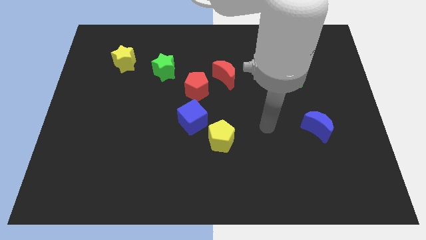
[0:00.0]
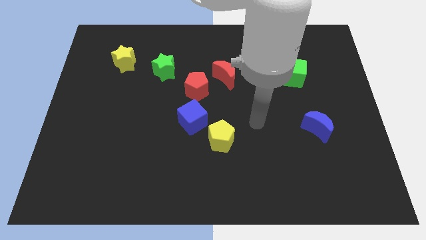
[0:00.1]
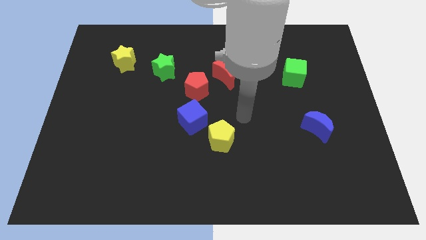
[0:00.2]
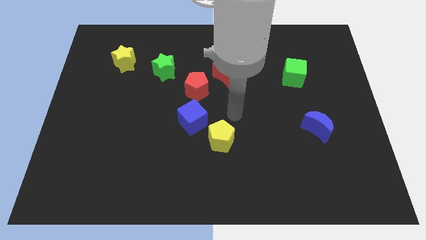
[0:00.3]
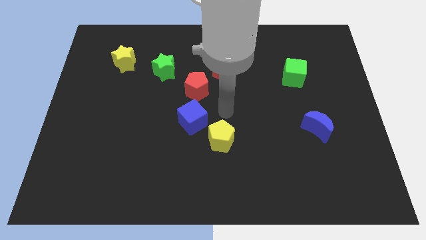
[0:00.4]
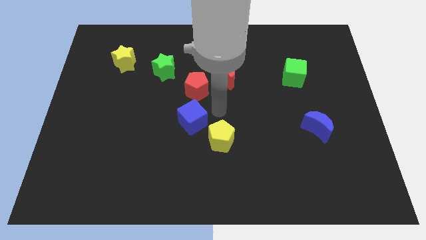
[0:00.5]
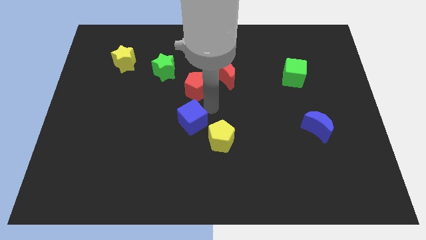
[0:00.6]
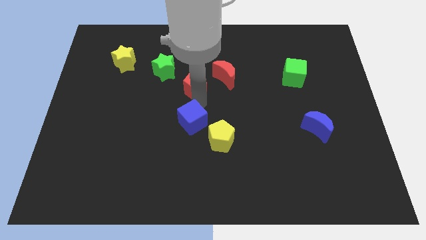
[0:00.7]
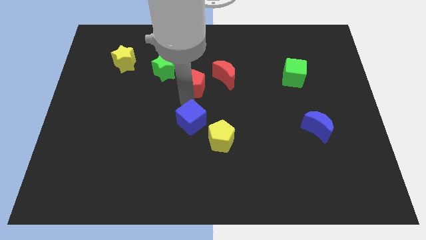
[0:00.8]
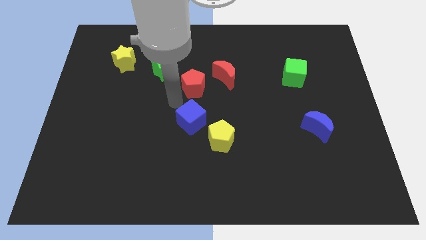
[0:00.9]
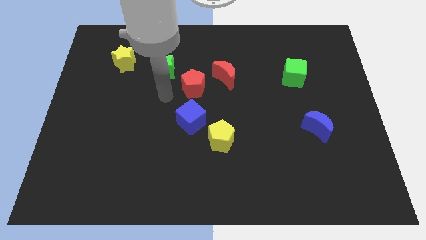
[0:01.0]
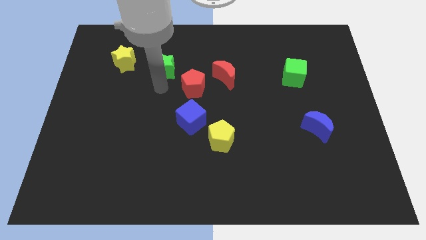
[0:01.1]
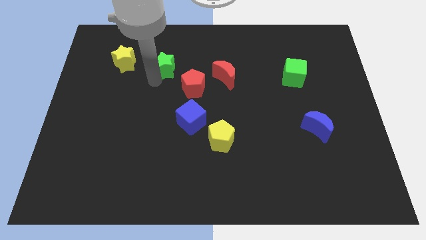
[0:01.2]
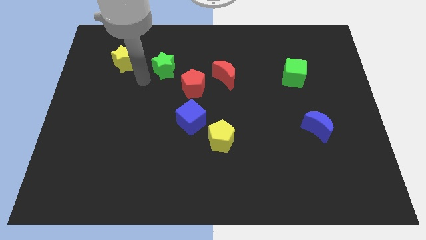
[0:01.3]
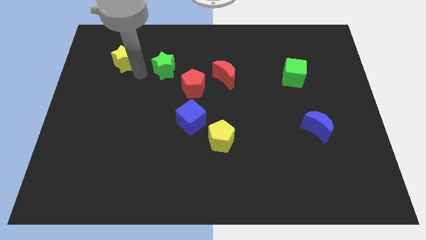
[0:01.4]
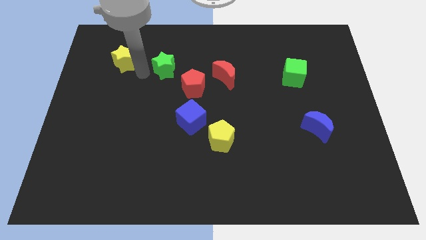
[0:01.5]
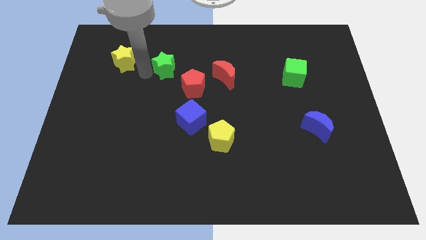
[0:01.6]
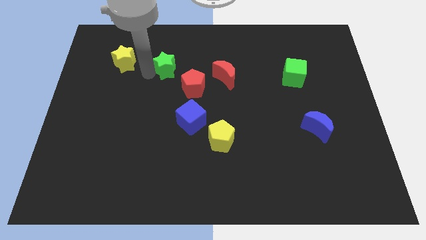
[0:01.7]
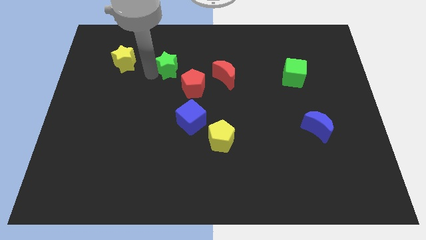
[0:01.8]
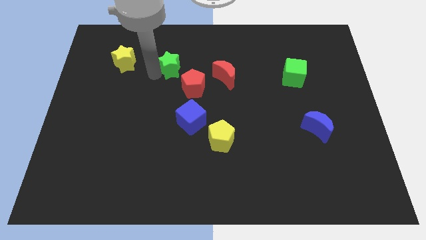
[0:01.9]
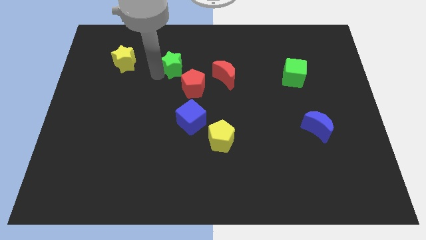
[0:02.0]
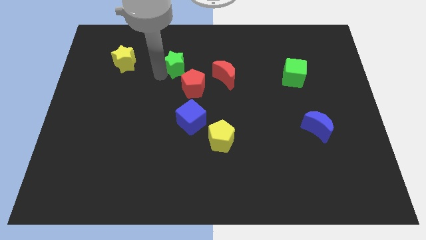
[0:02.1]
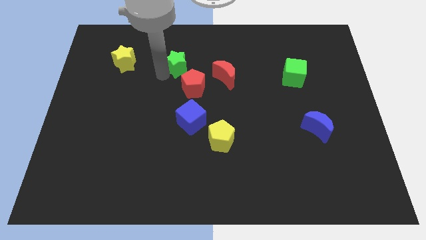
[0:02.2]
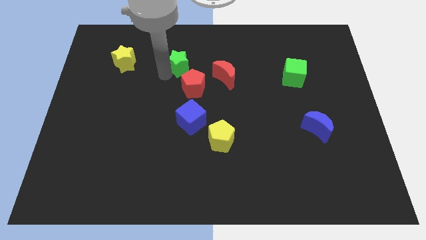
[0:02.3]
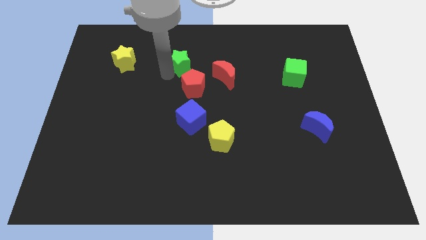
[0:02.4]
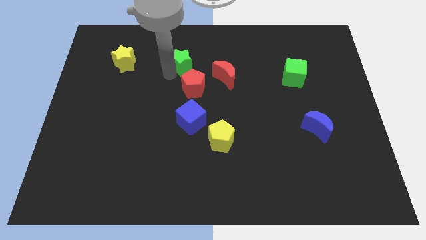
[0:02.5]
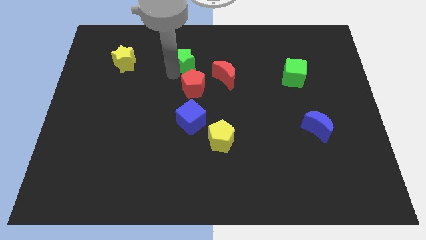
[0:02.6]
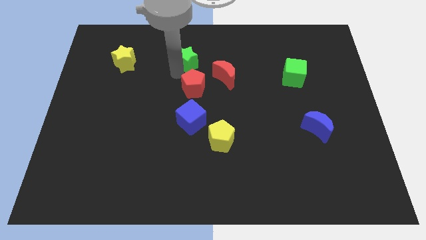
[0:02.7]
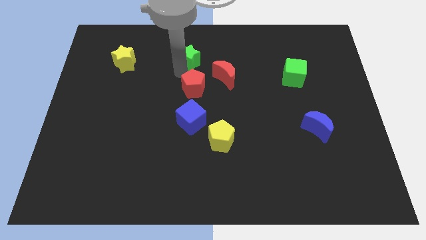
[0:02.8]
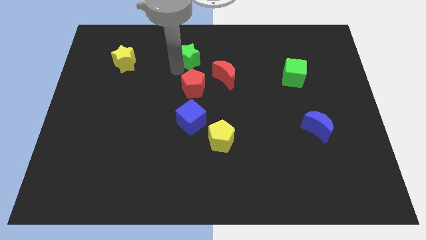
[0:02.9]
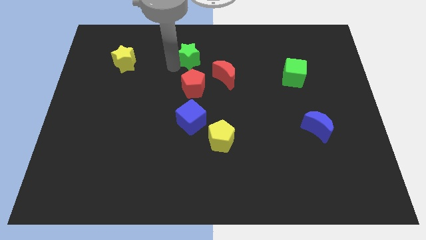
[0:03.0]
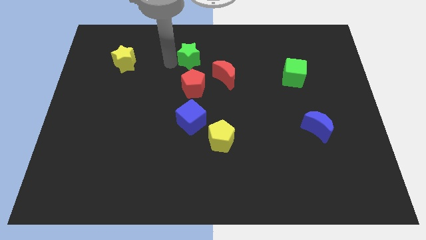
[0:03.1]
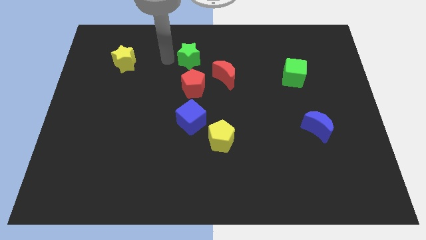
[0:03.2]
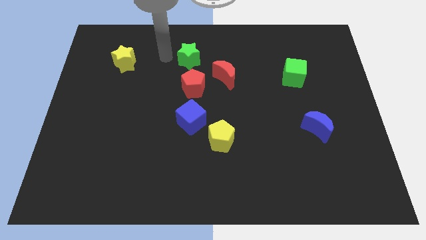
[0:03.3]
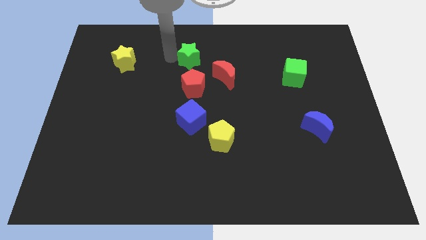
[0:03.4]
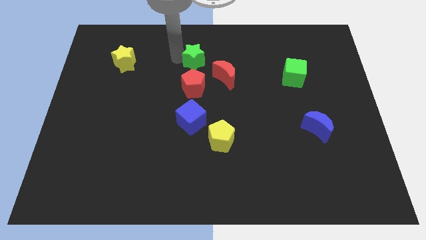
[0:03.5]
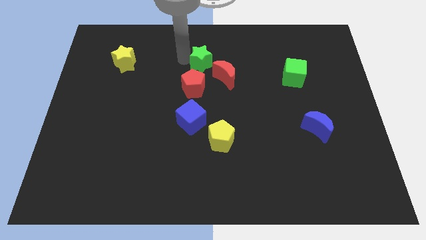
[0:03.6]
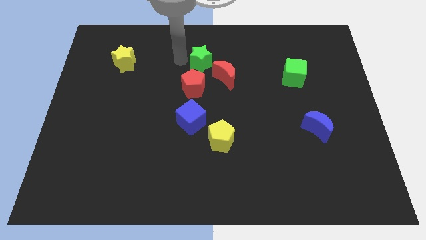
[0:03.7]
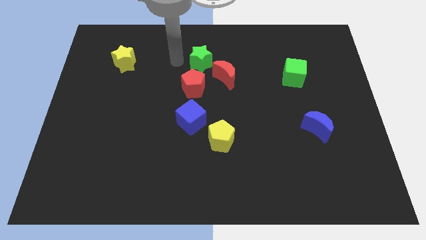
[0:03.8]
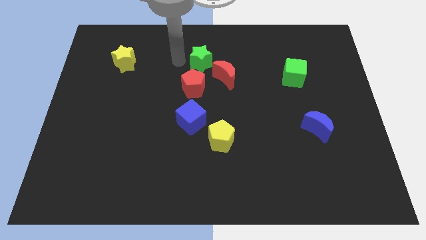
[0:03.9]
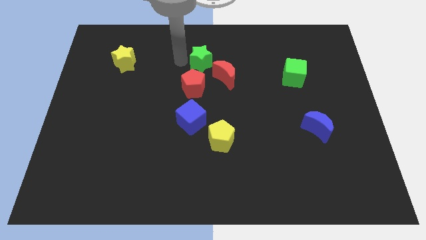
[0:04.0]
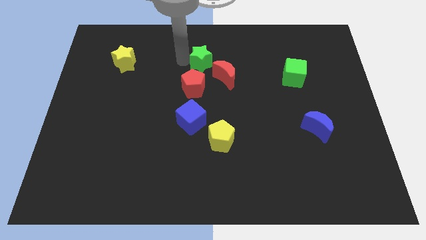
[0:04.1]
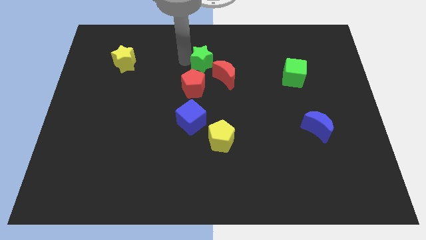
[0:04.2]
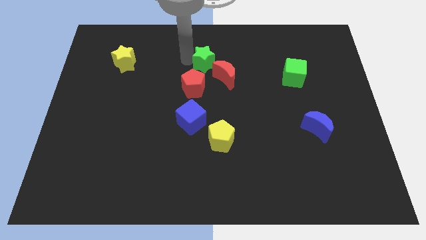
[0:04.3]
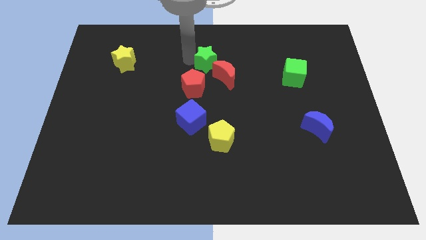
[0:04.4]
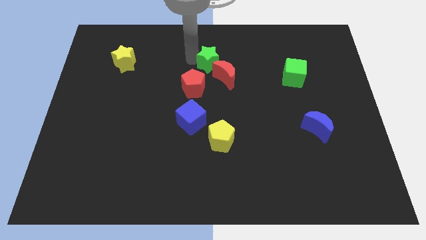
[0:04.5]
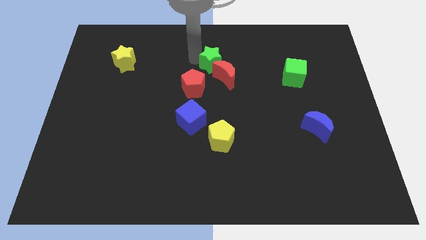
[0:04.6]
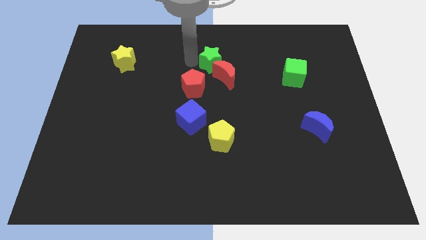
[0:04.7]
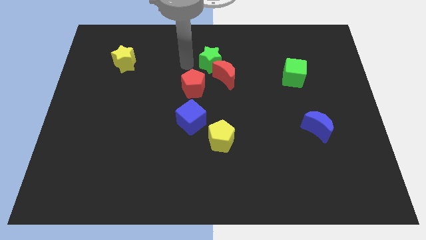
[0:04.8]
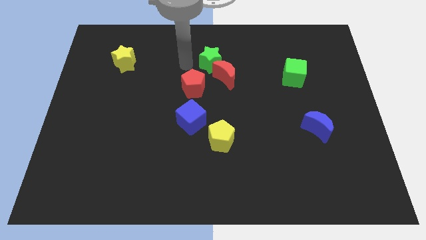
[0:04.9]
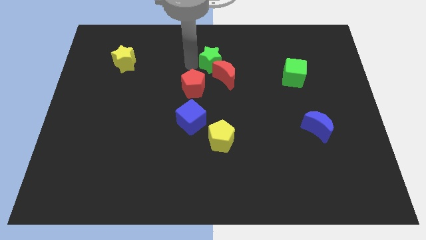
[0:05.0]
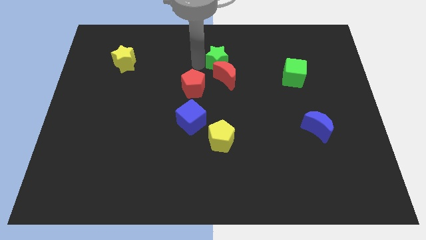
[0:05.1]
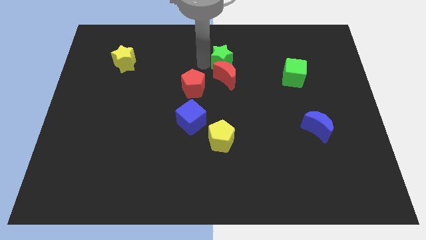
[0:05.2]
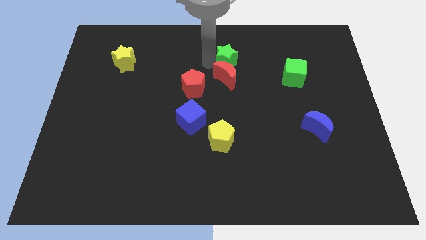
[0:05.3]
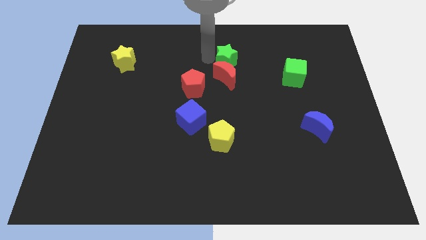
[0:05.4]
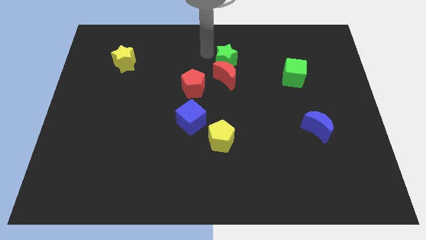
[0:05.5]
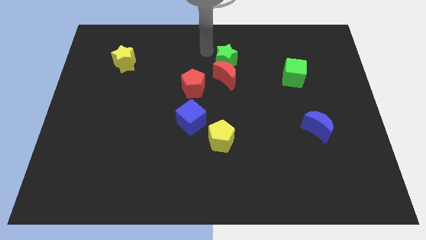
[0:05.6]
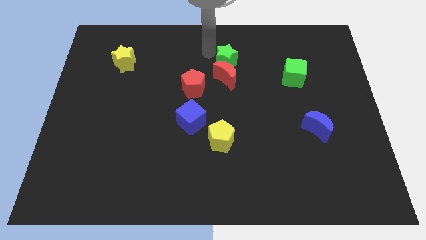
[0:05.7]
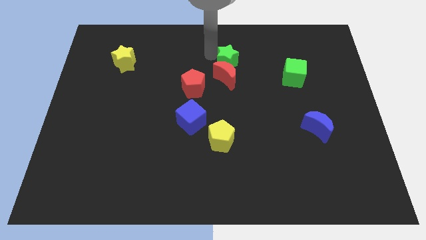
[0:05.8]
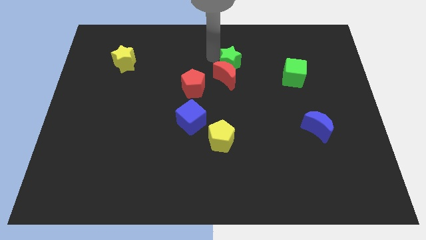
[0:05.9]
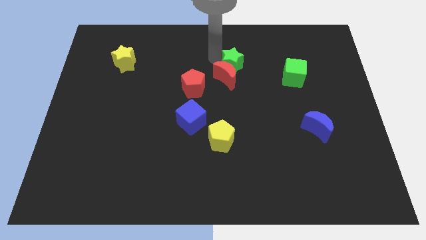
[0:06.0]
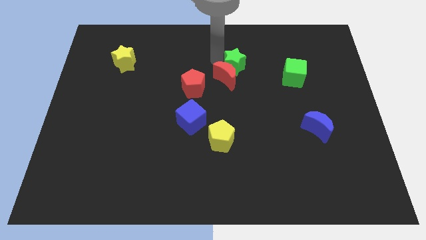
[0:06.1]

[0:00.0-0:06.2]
move the green star to the left of the green cube
